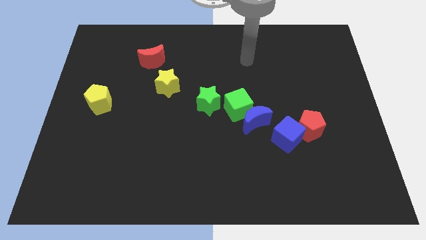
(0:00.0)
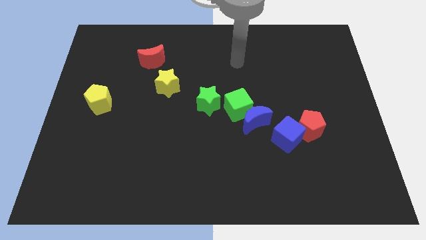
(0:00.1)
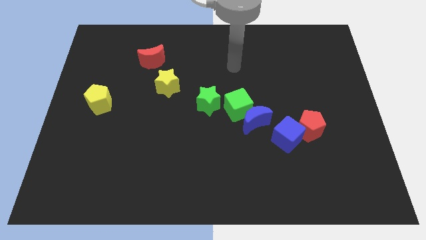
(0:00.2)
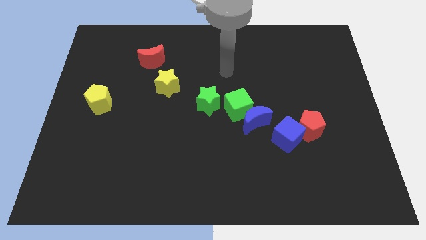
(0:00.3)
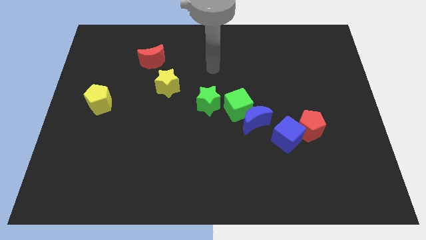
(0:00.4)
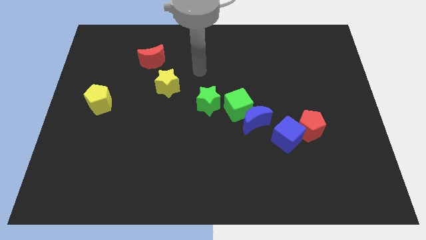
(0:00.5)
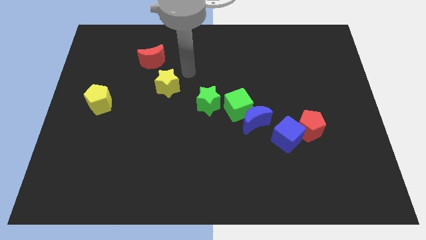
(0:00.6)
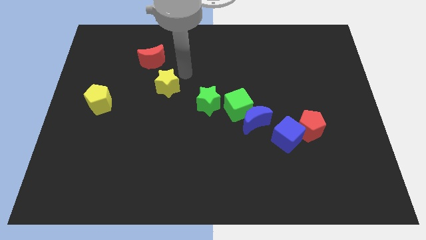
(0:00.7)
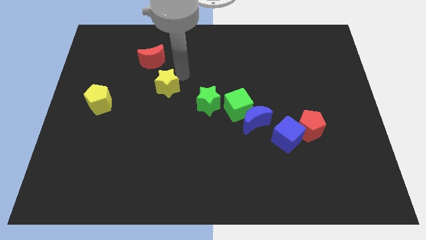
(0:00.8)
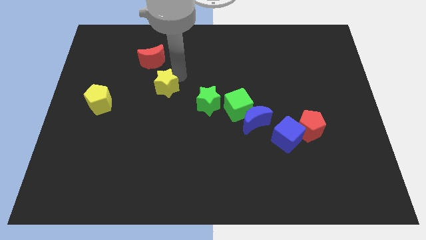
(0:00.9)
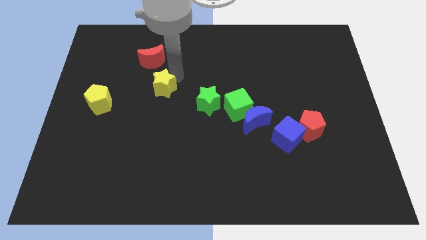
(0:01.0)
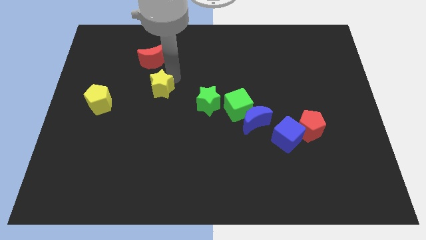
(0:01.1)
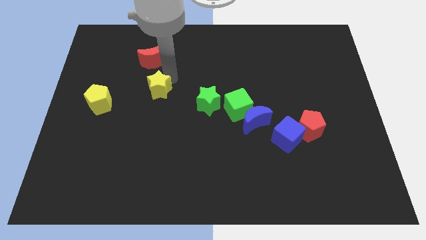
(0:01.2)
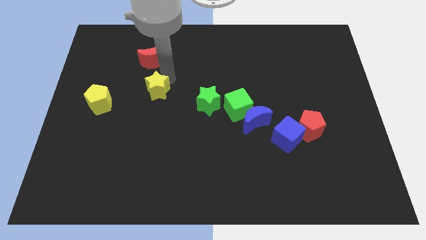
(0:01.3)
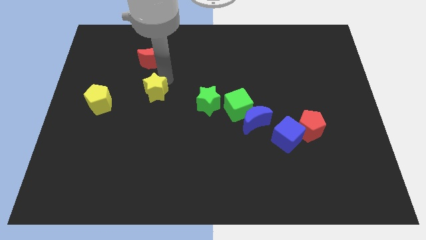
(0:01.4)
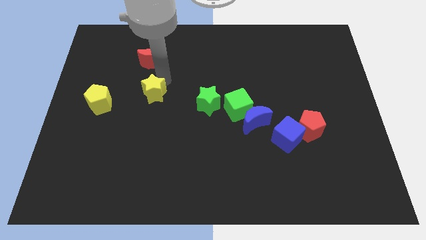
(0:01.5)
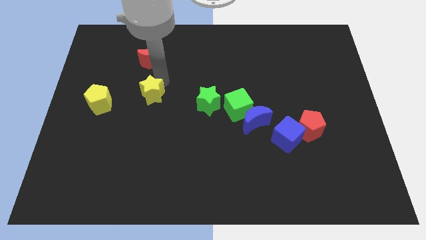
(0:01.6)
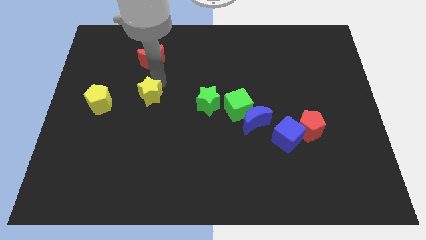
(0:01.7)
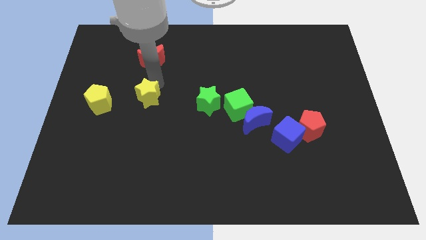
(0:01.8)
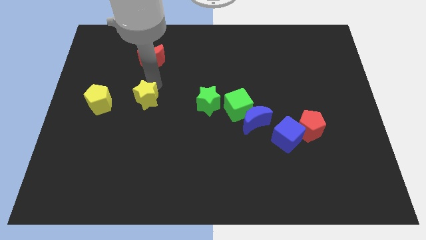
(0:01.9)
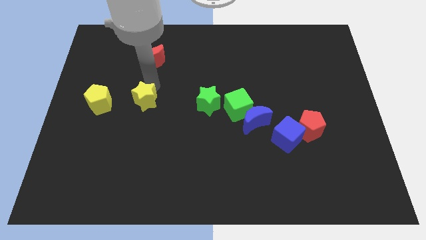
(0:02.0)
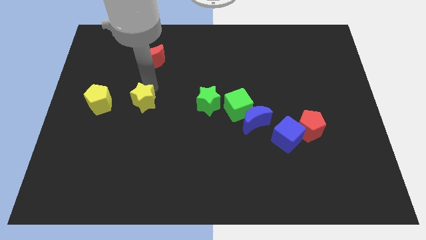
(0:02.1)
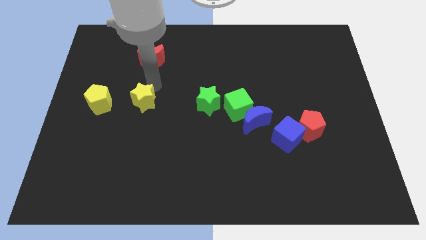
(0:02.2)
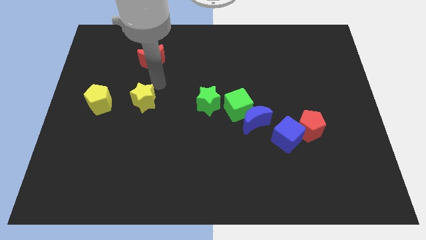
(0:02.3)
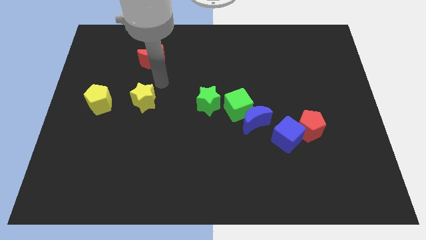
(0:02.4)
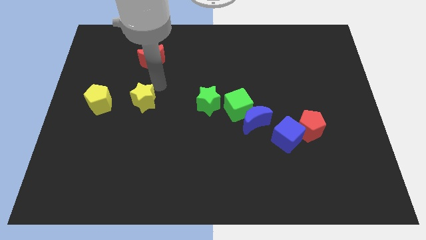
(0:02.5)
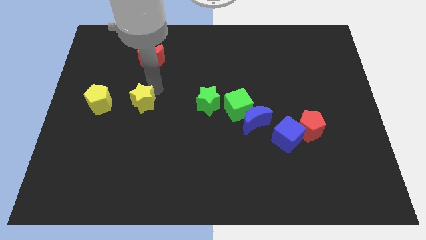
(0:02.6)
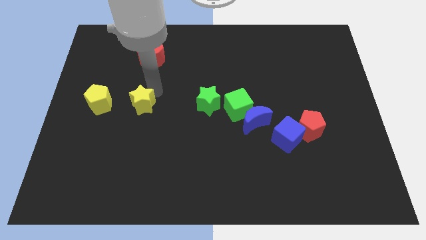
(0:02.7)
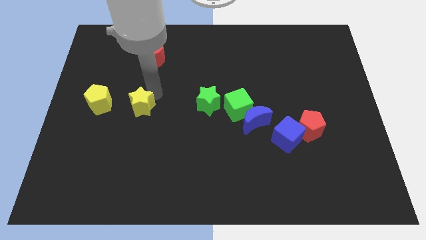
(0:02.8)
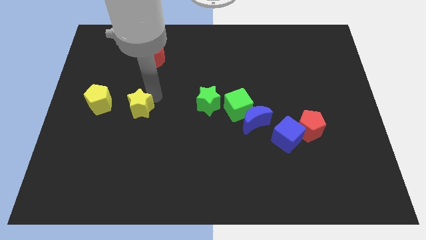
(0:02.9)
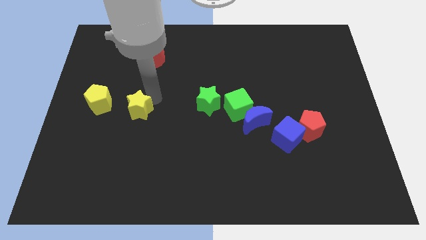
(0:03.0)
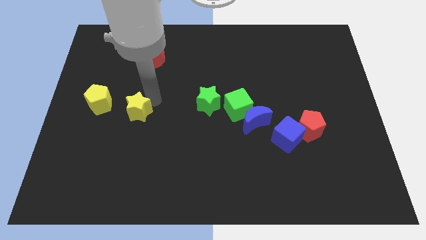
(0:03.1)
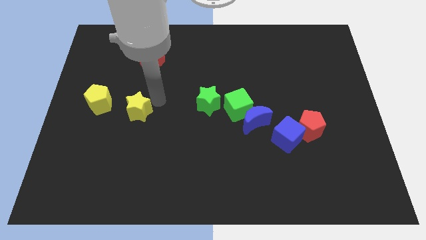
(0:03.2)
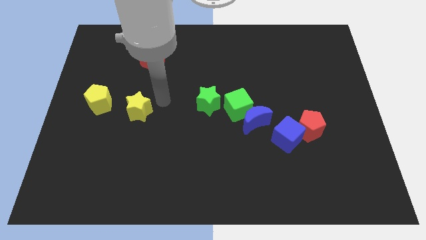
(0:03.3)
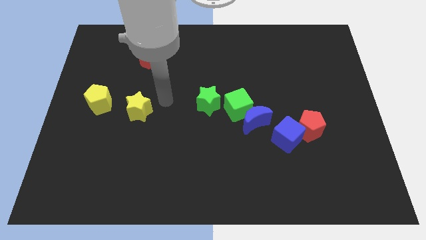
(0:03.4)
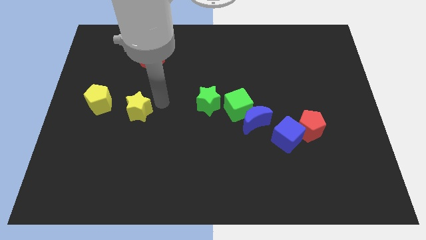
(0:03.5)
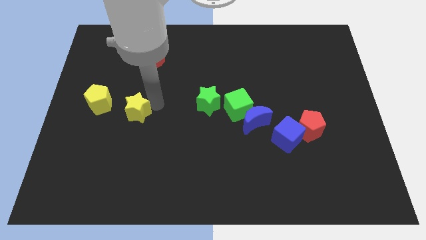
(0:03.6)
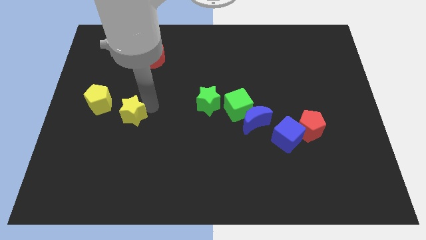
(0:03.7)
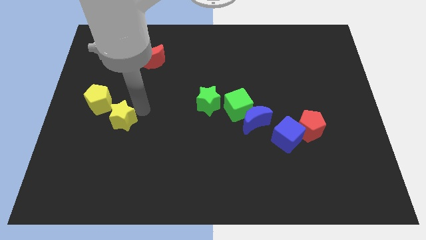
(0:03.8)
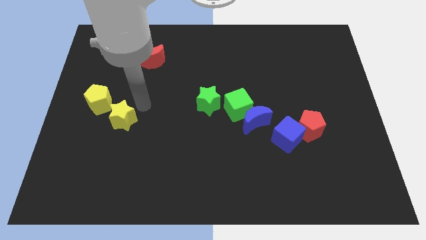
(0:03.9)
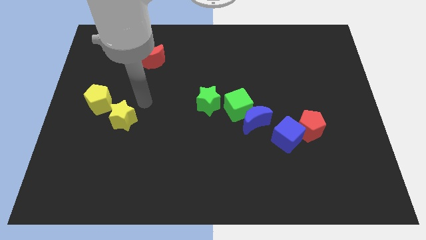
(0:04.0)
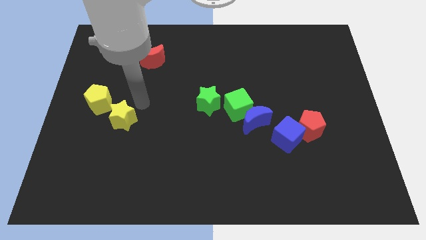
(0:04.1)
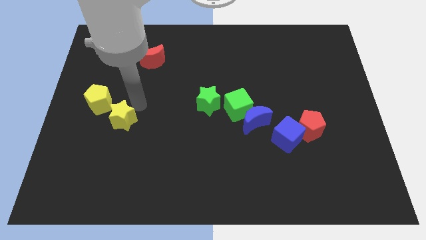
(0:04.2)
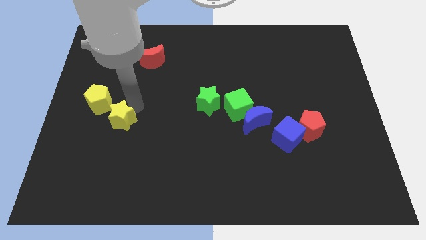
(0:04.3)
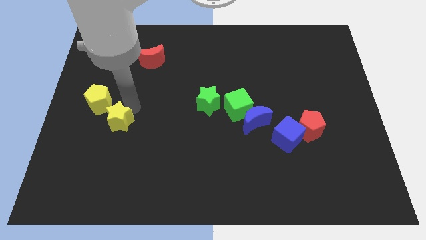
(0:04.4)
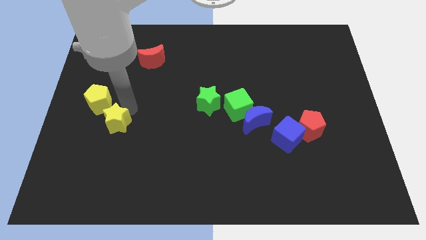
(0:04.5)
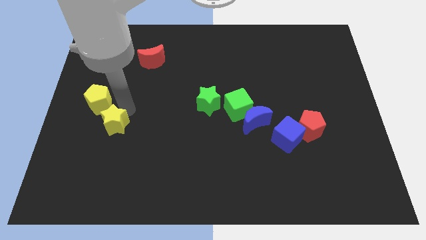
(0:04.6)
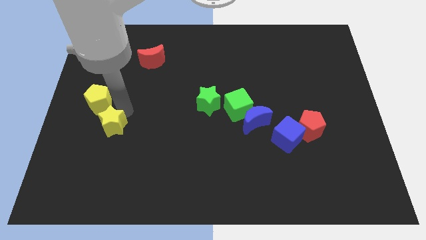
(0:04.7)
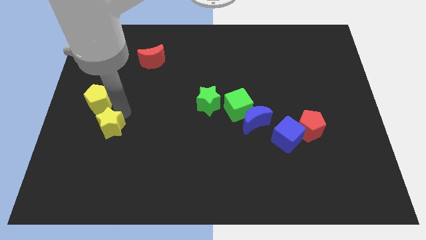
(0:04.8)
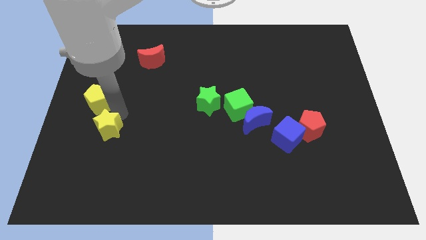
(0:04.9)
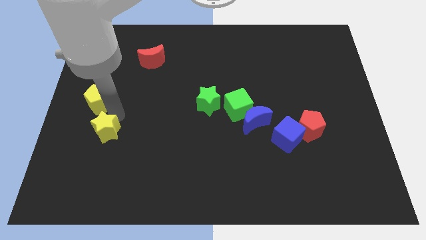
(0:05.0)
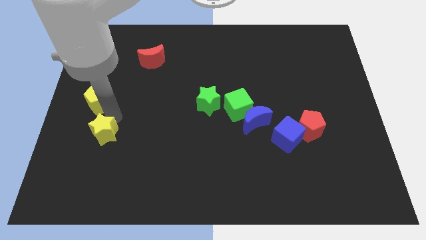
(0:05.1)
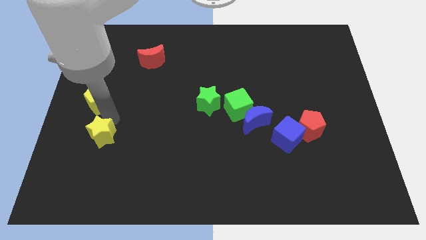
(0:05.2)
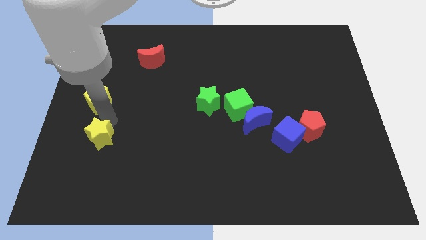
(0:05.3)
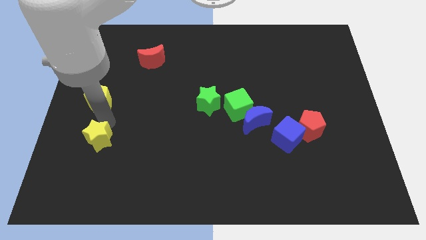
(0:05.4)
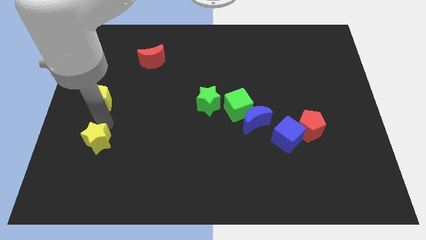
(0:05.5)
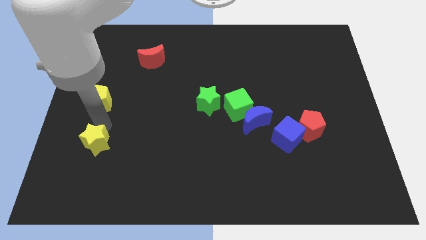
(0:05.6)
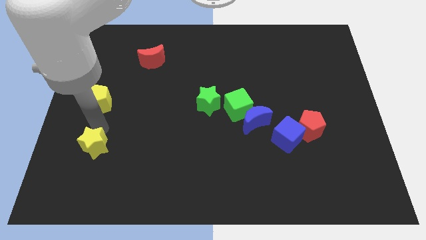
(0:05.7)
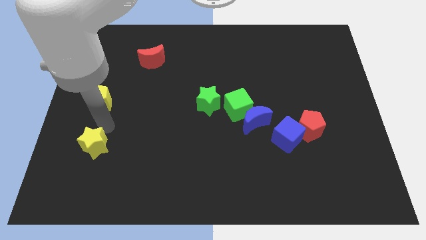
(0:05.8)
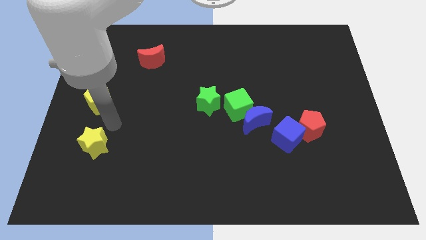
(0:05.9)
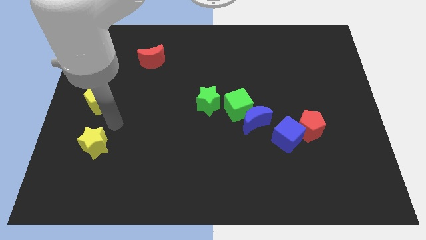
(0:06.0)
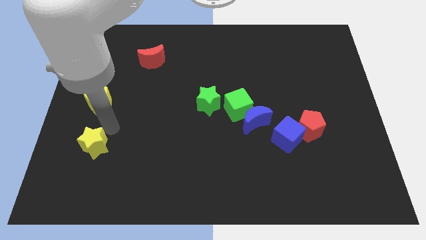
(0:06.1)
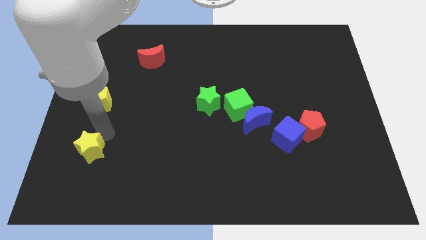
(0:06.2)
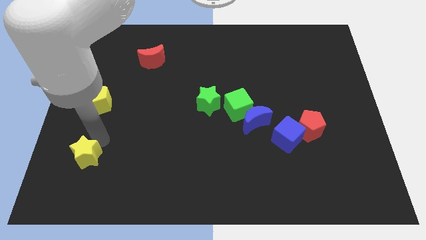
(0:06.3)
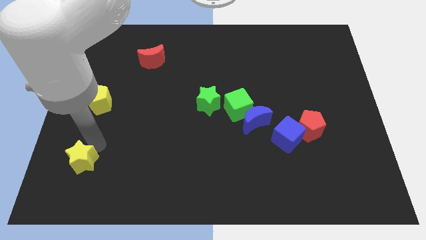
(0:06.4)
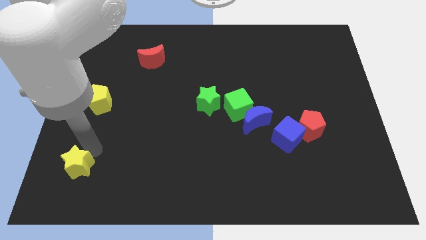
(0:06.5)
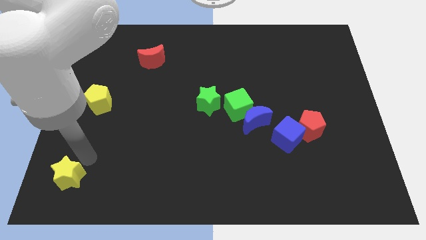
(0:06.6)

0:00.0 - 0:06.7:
slide the yellow star to the lower left corner
